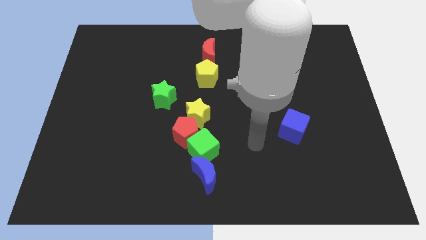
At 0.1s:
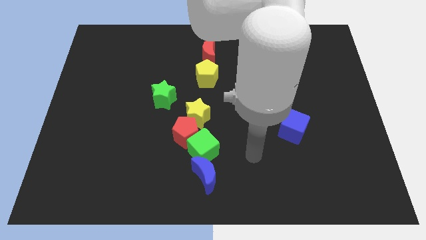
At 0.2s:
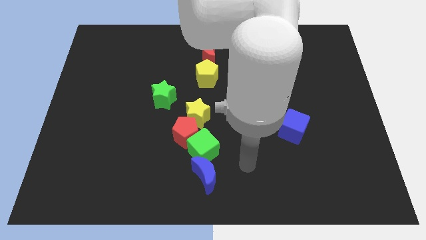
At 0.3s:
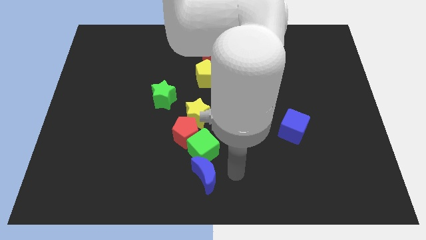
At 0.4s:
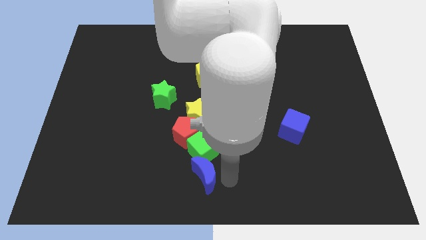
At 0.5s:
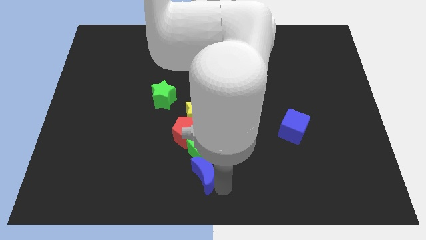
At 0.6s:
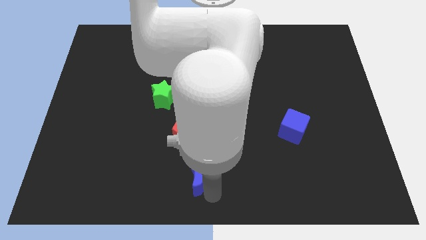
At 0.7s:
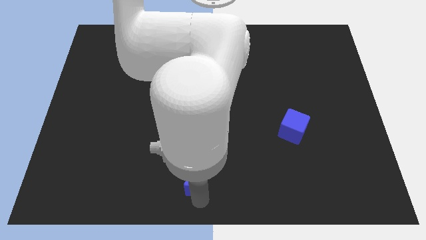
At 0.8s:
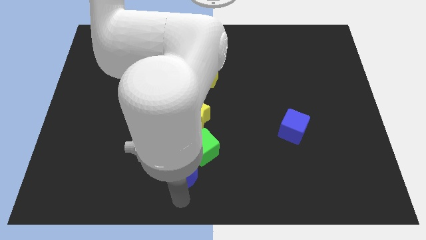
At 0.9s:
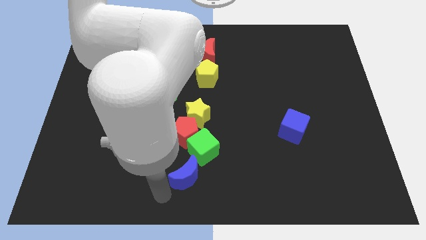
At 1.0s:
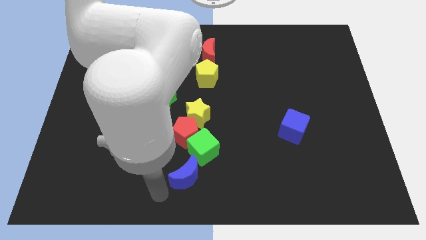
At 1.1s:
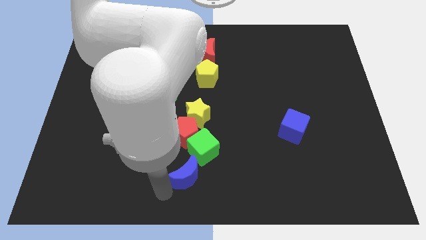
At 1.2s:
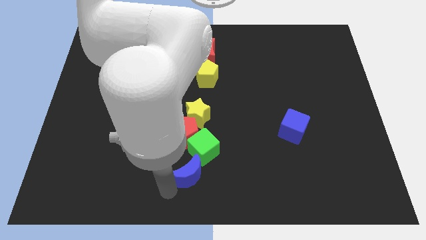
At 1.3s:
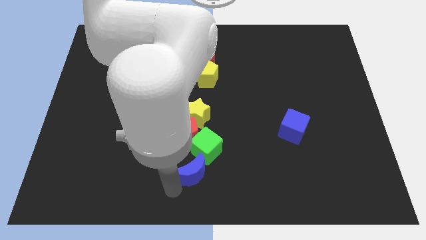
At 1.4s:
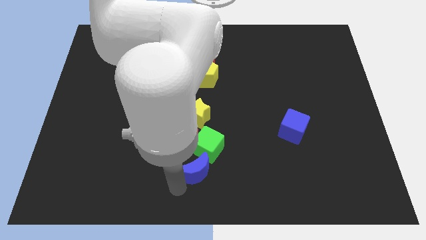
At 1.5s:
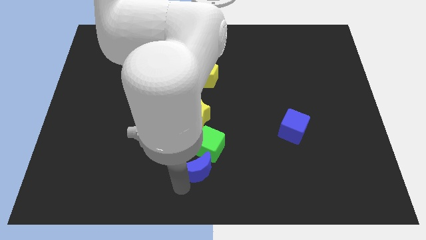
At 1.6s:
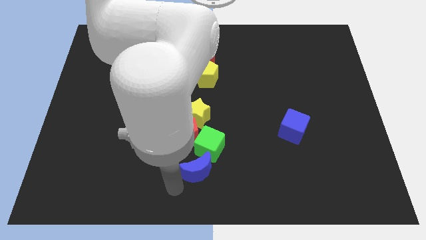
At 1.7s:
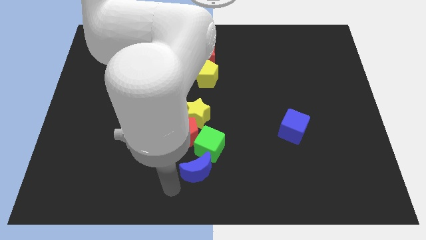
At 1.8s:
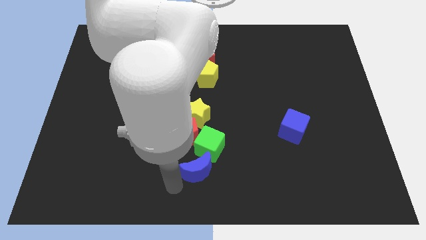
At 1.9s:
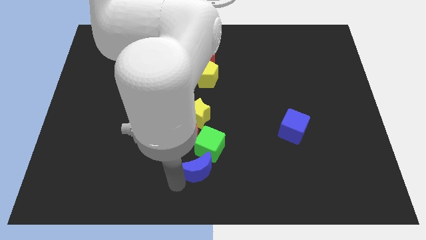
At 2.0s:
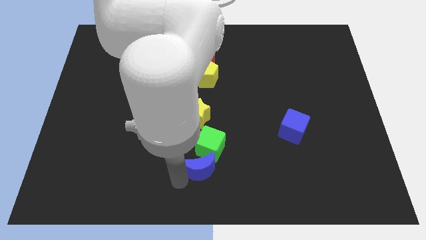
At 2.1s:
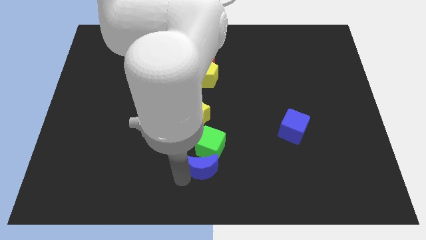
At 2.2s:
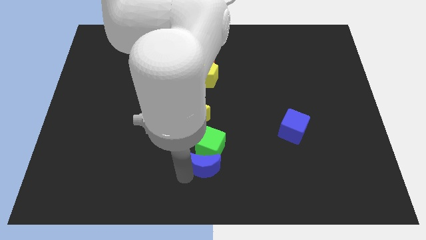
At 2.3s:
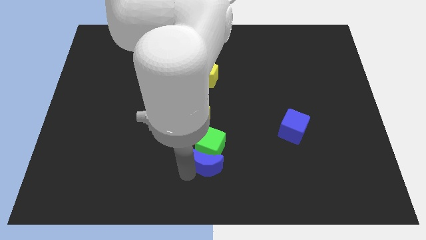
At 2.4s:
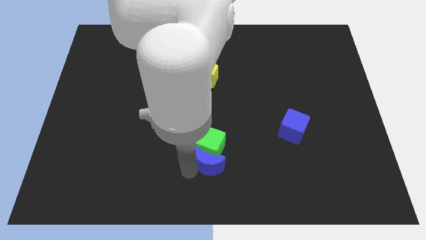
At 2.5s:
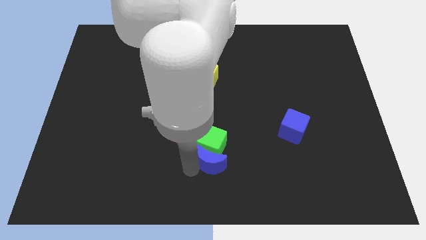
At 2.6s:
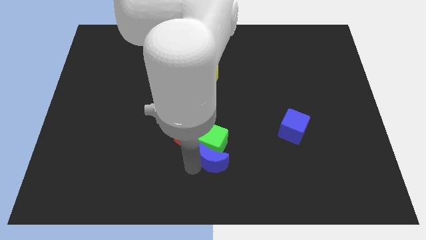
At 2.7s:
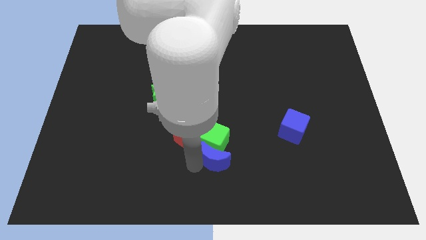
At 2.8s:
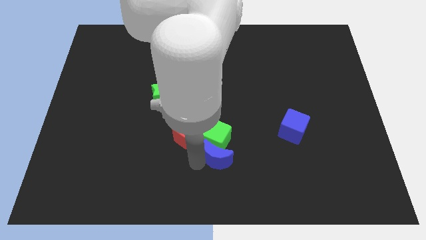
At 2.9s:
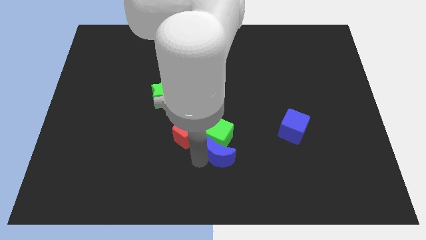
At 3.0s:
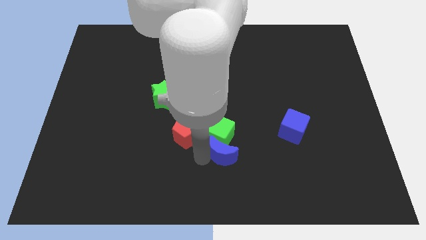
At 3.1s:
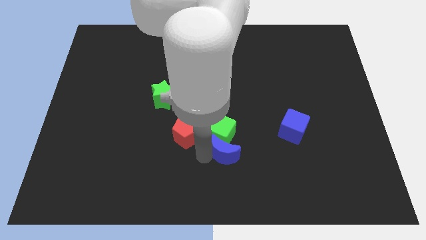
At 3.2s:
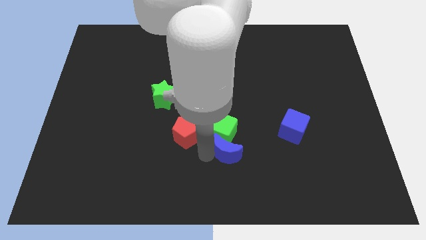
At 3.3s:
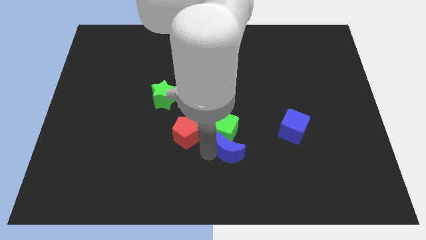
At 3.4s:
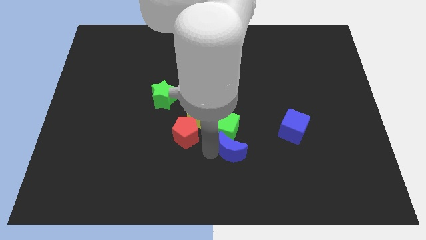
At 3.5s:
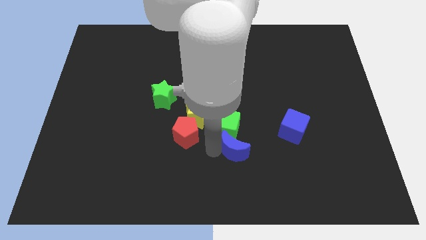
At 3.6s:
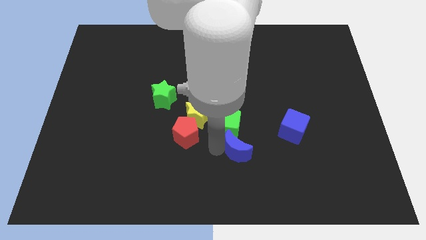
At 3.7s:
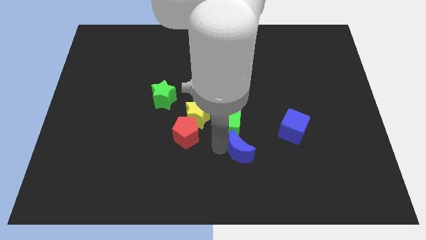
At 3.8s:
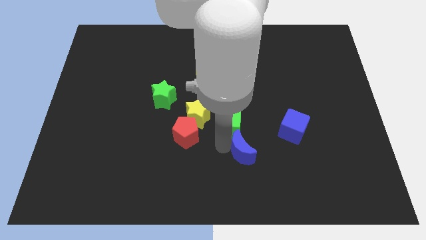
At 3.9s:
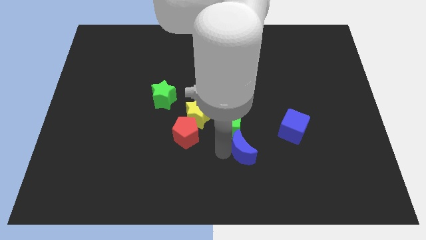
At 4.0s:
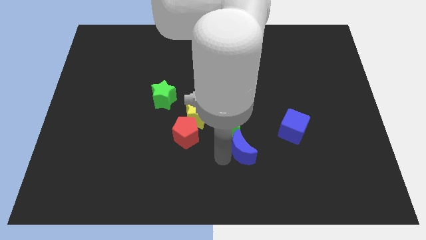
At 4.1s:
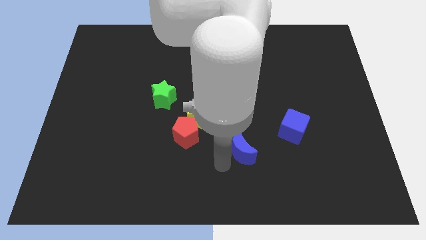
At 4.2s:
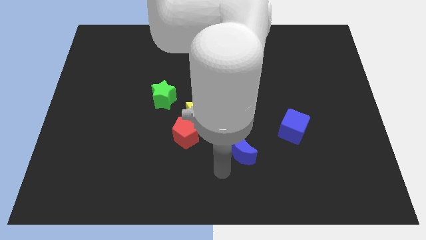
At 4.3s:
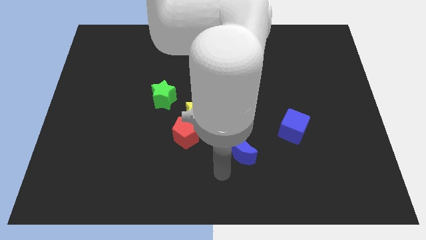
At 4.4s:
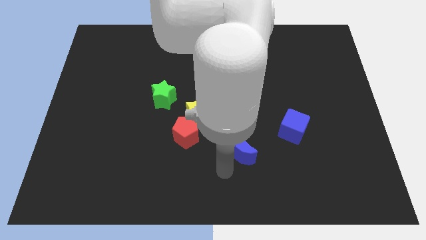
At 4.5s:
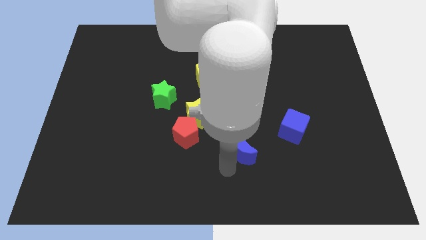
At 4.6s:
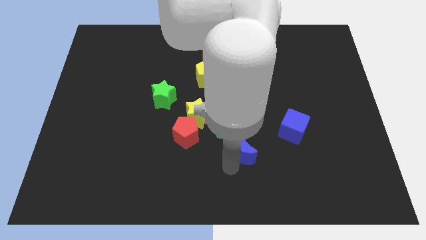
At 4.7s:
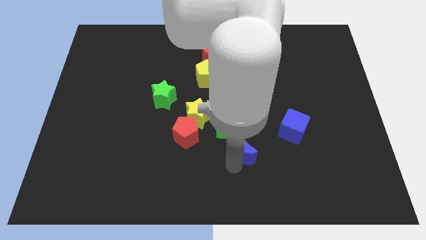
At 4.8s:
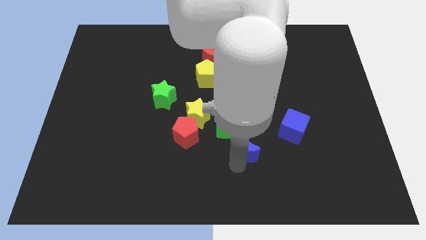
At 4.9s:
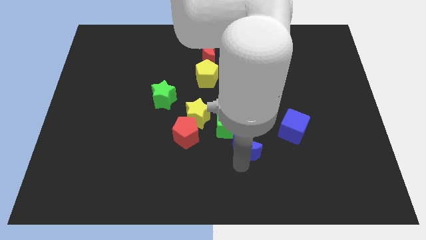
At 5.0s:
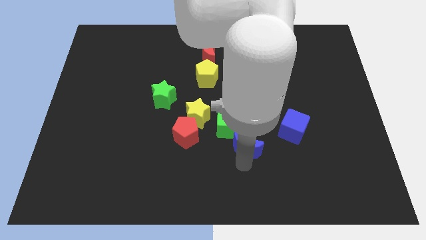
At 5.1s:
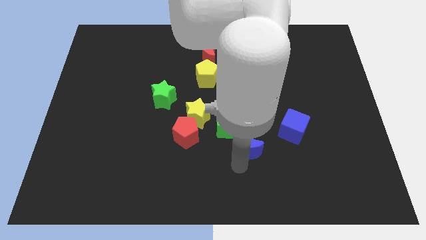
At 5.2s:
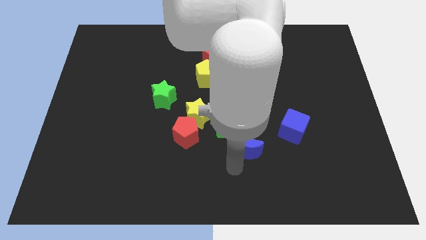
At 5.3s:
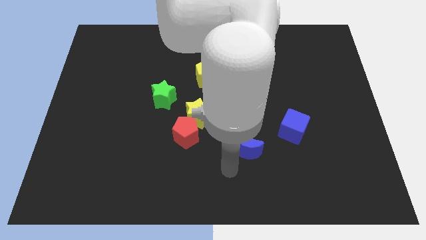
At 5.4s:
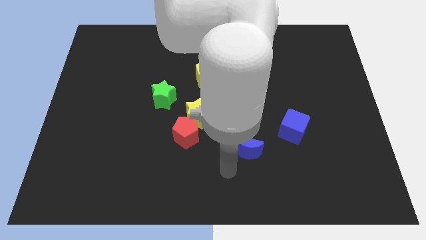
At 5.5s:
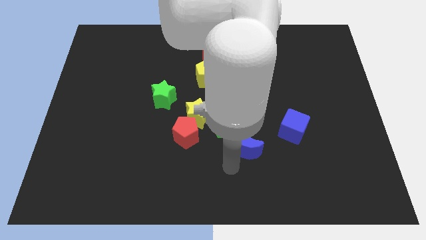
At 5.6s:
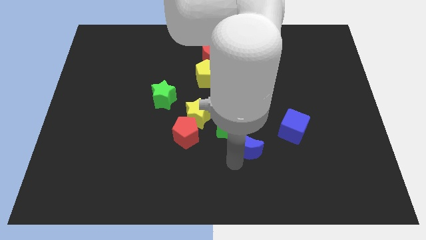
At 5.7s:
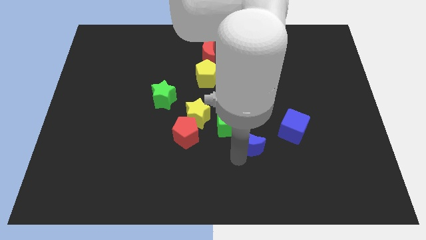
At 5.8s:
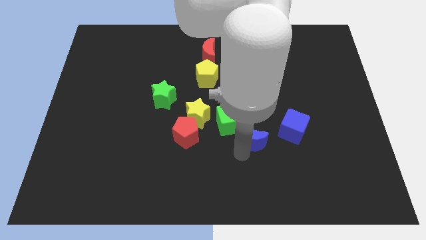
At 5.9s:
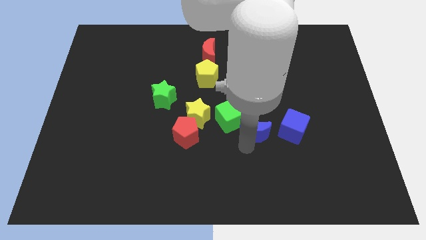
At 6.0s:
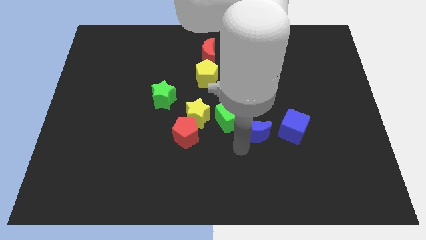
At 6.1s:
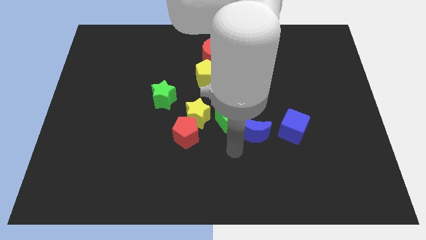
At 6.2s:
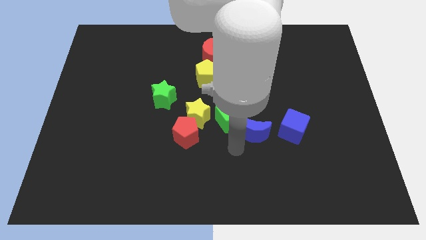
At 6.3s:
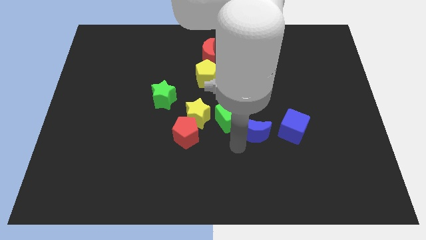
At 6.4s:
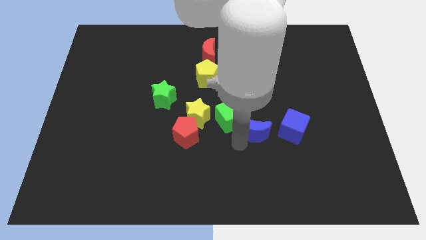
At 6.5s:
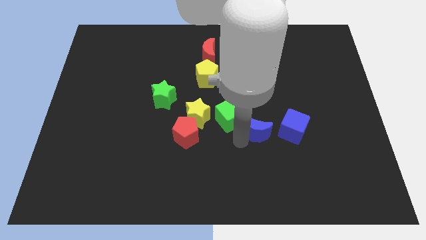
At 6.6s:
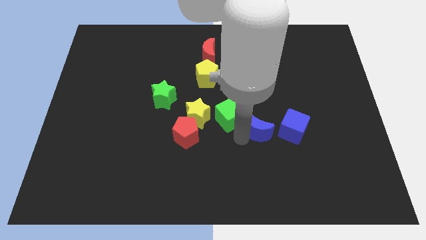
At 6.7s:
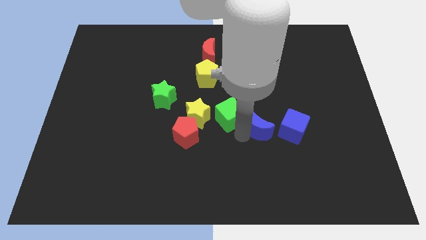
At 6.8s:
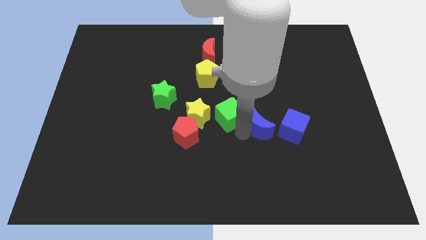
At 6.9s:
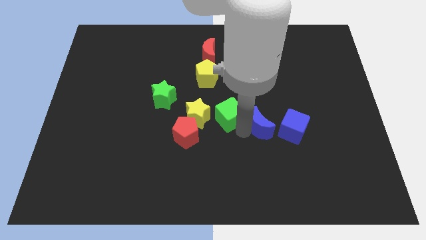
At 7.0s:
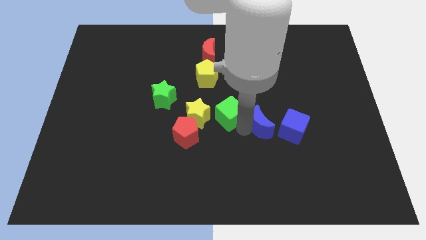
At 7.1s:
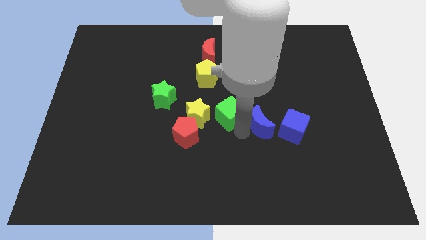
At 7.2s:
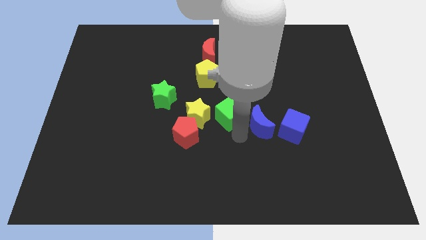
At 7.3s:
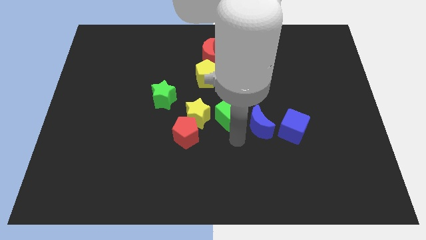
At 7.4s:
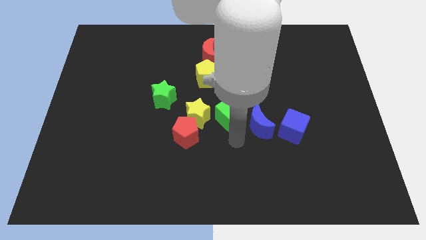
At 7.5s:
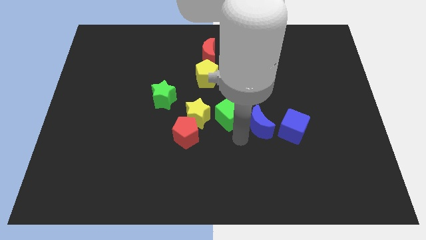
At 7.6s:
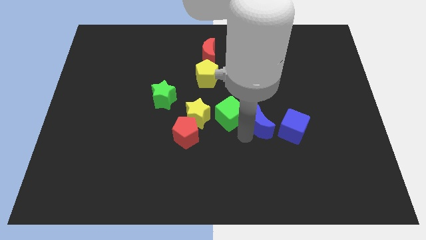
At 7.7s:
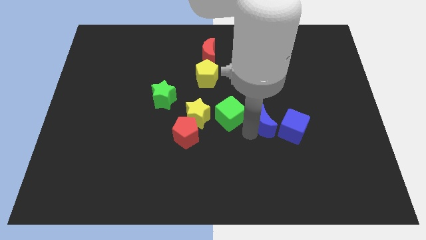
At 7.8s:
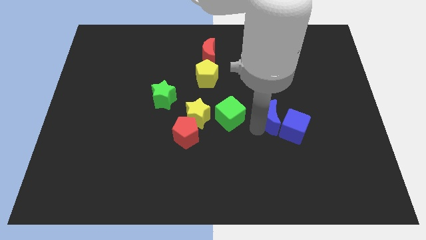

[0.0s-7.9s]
push the blue moon up and then right
